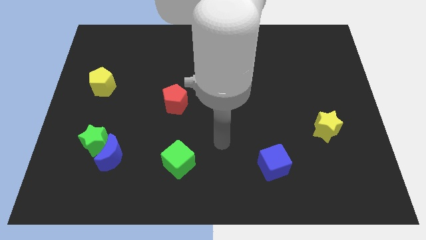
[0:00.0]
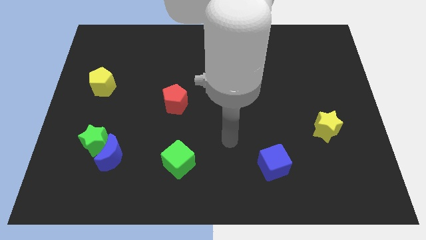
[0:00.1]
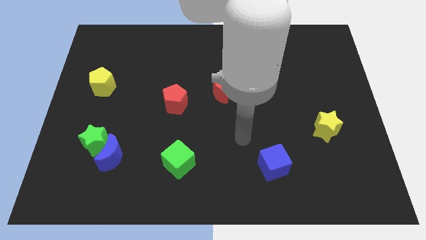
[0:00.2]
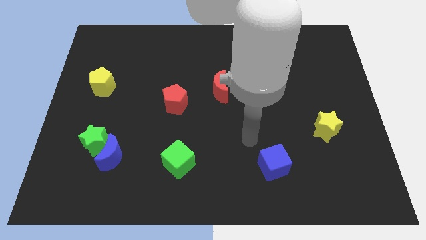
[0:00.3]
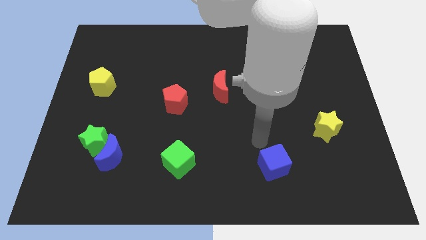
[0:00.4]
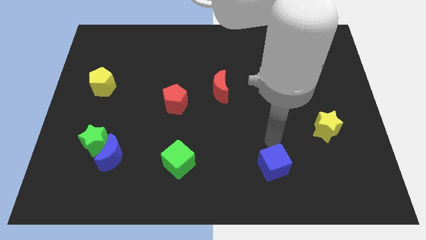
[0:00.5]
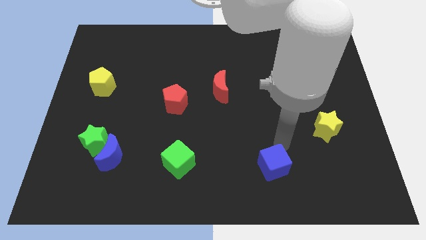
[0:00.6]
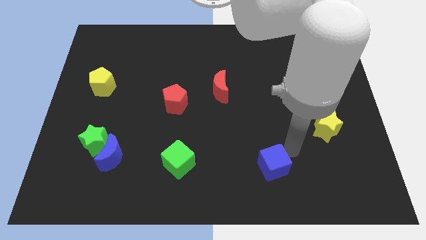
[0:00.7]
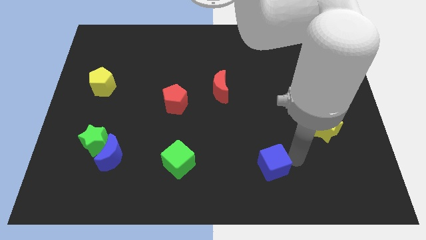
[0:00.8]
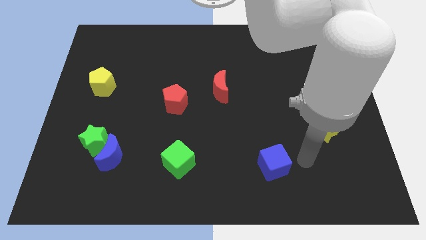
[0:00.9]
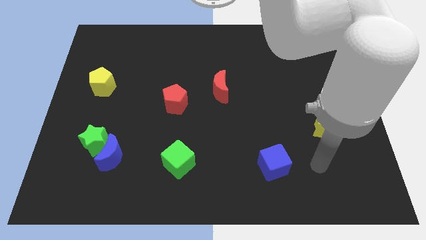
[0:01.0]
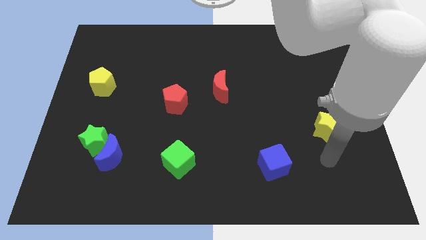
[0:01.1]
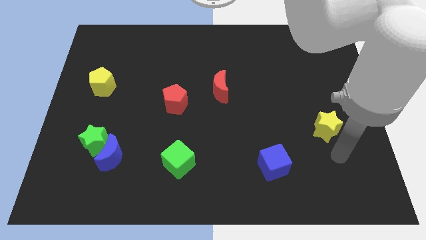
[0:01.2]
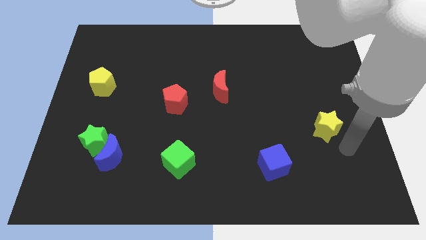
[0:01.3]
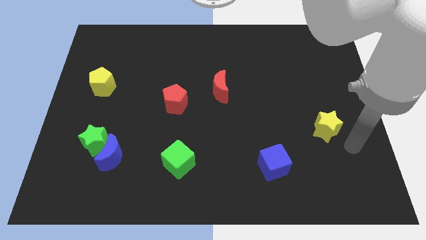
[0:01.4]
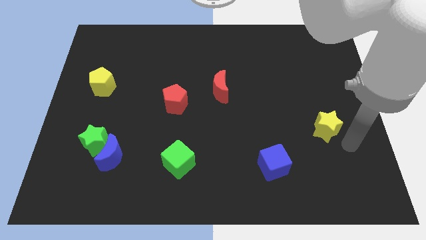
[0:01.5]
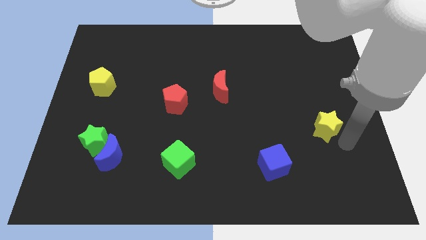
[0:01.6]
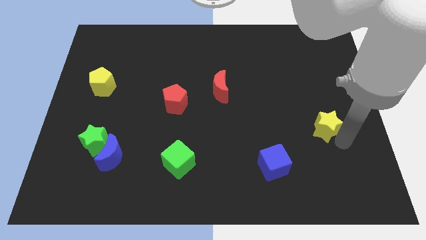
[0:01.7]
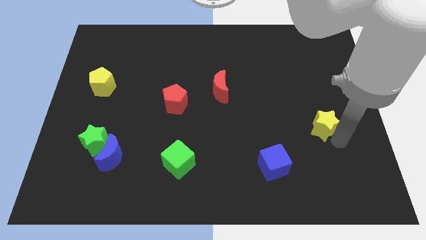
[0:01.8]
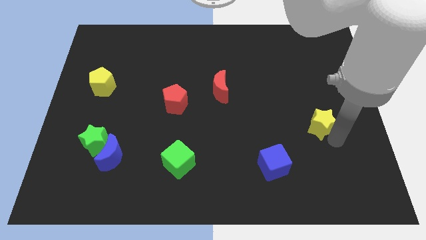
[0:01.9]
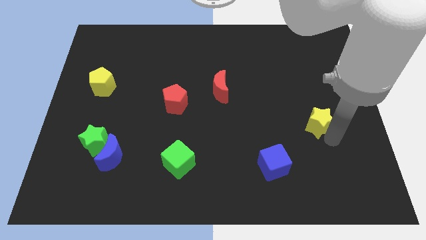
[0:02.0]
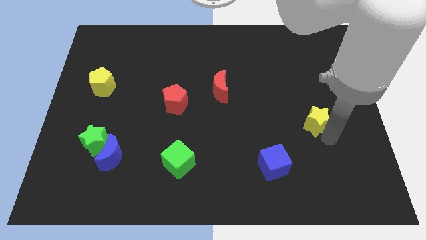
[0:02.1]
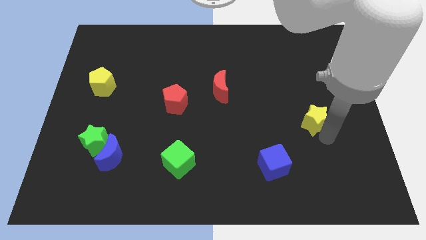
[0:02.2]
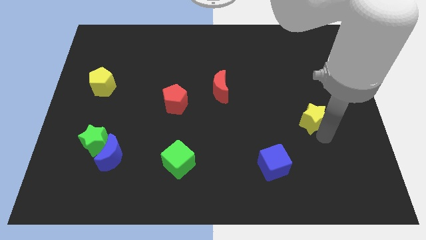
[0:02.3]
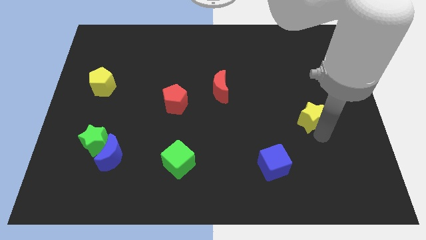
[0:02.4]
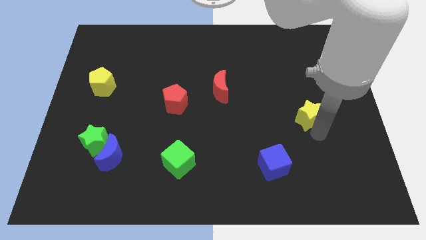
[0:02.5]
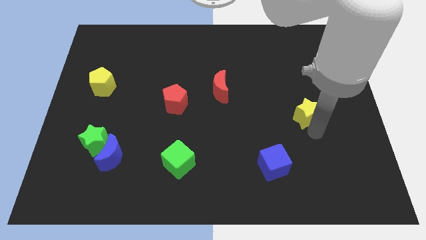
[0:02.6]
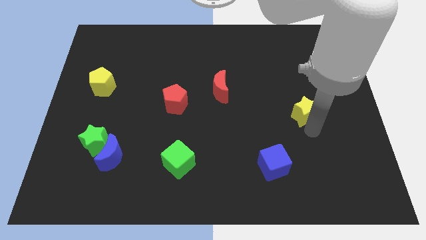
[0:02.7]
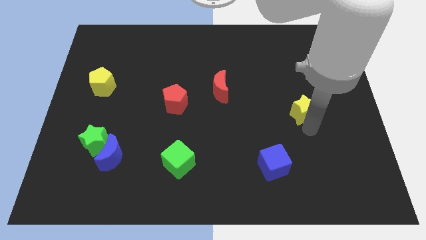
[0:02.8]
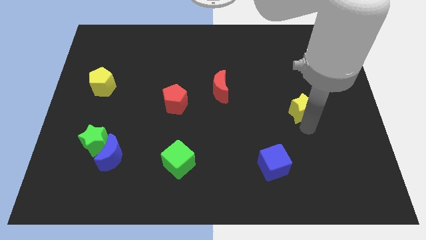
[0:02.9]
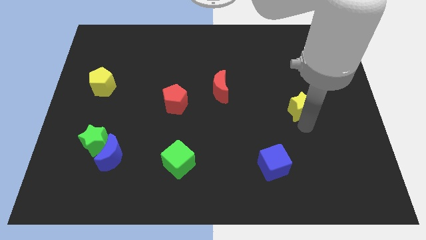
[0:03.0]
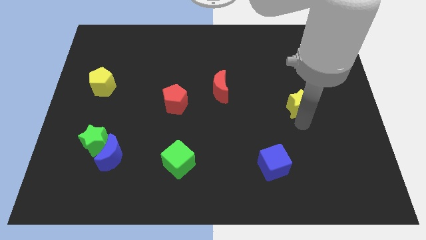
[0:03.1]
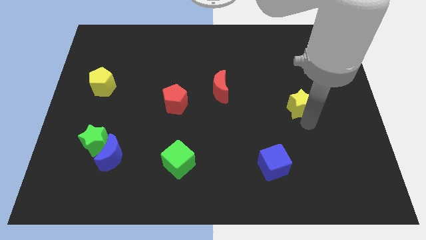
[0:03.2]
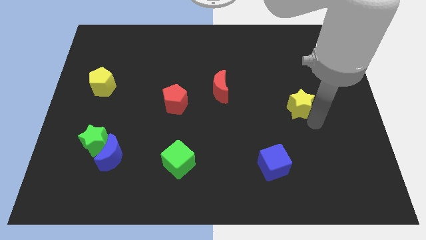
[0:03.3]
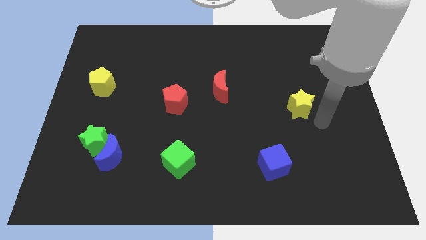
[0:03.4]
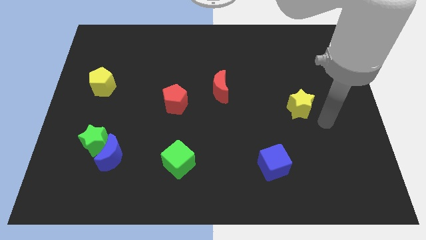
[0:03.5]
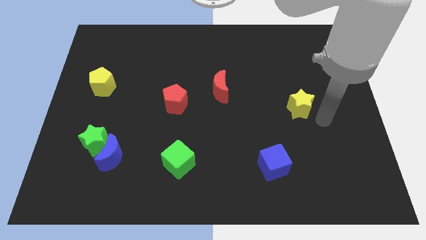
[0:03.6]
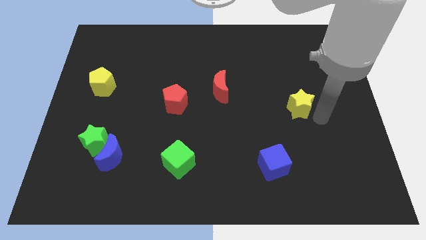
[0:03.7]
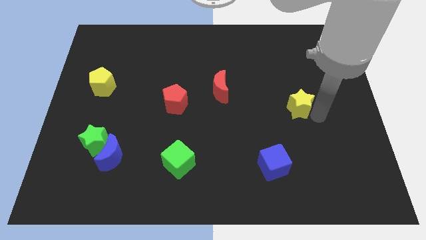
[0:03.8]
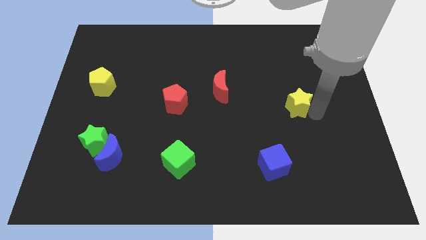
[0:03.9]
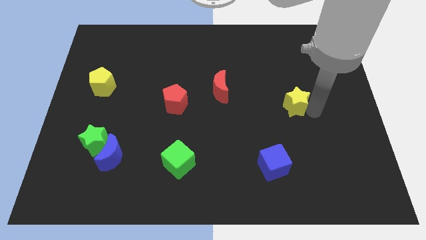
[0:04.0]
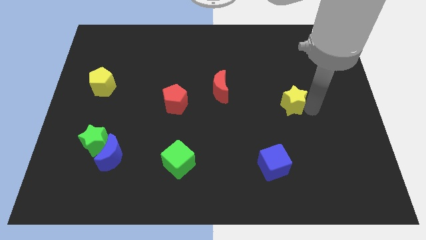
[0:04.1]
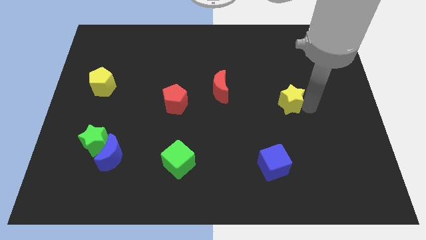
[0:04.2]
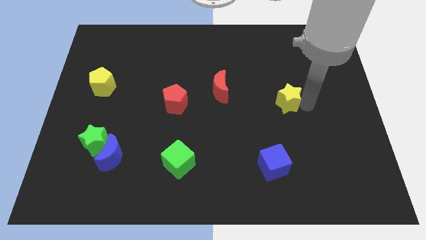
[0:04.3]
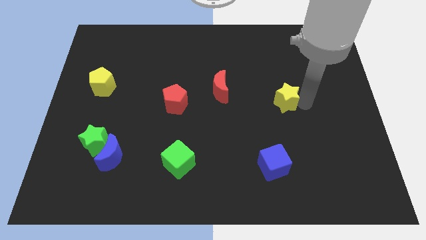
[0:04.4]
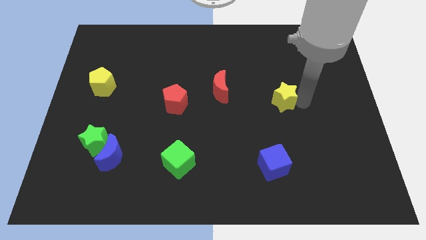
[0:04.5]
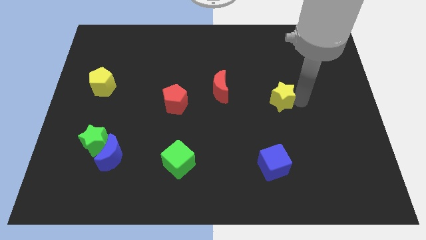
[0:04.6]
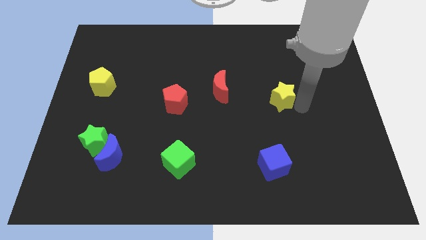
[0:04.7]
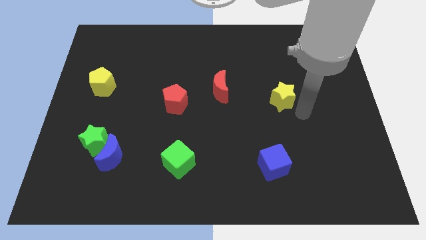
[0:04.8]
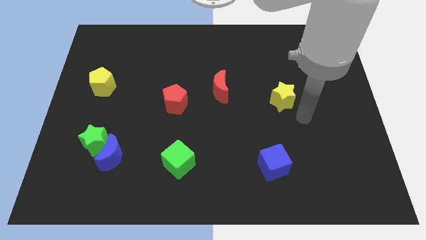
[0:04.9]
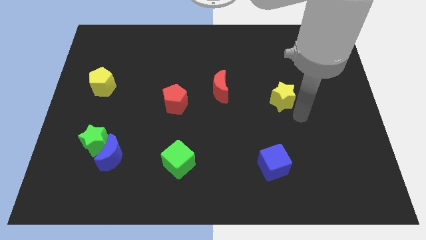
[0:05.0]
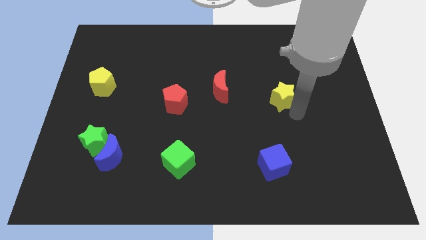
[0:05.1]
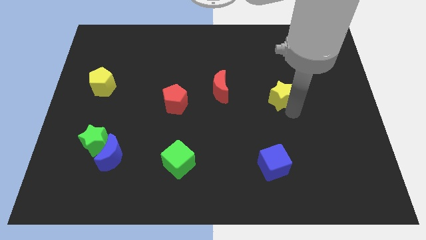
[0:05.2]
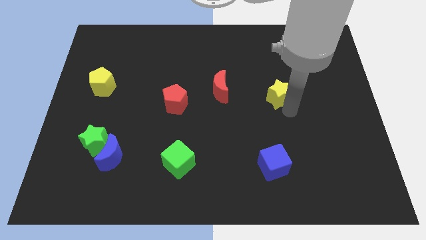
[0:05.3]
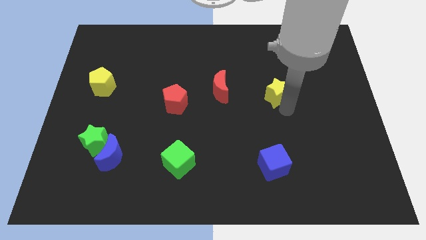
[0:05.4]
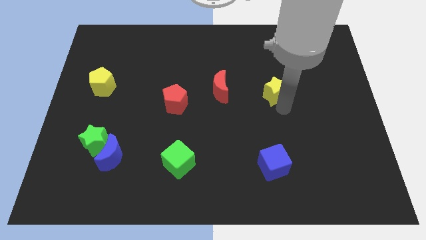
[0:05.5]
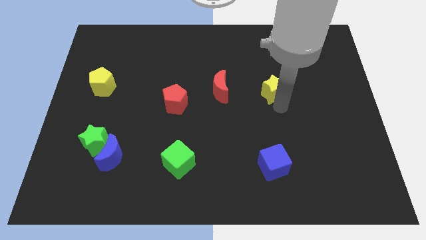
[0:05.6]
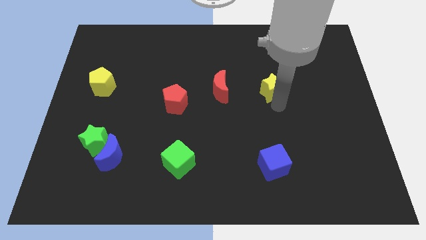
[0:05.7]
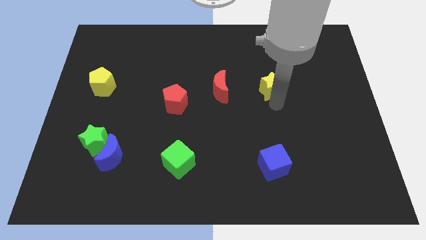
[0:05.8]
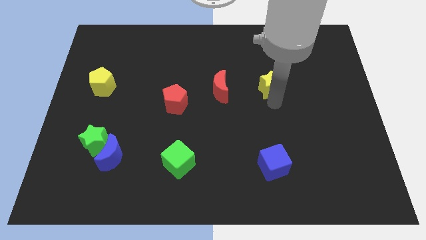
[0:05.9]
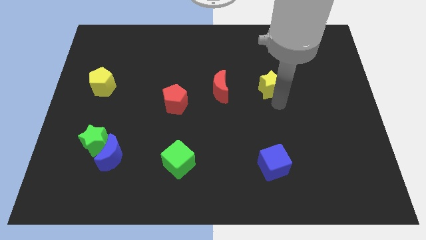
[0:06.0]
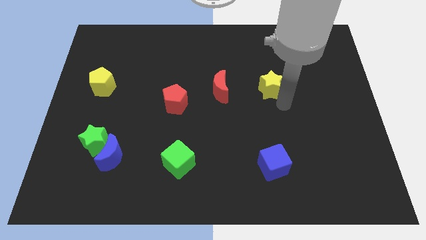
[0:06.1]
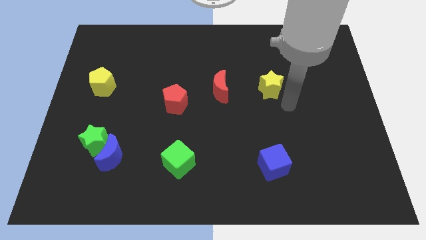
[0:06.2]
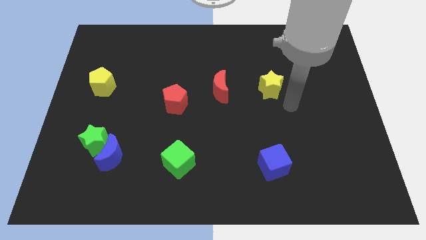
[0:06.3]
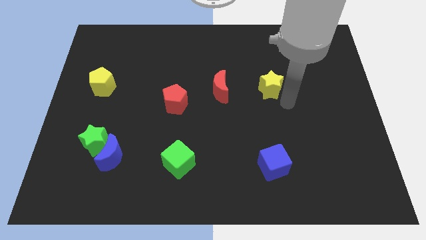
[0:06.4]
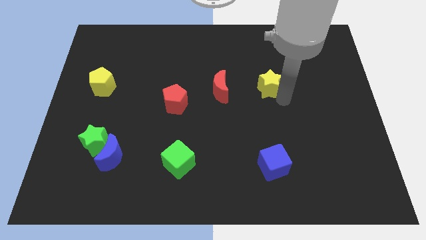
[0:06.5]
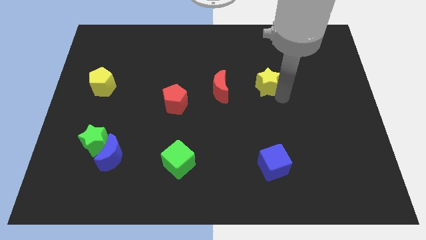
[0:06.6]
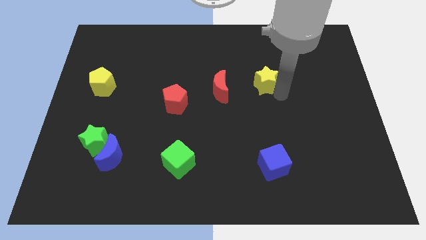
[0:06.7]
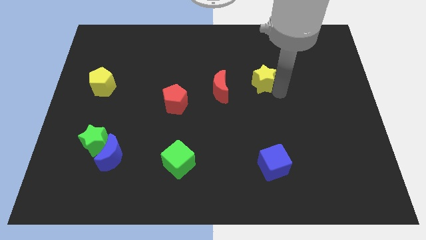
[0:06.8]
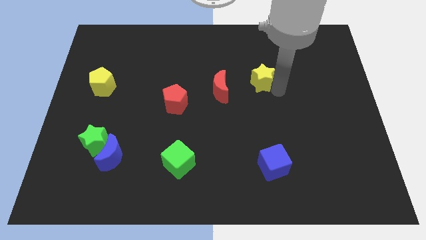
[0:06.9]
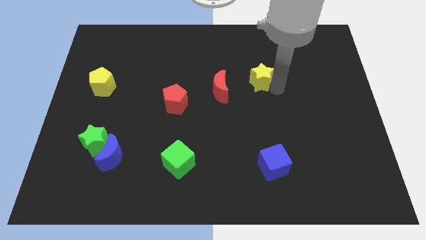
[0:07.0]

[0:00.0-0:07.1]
move the yellow star upwards and then to the left

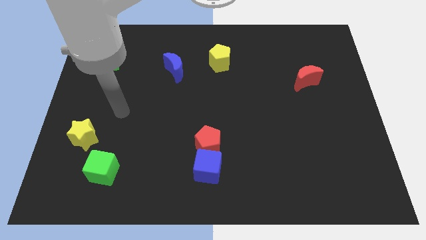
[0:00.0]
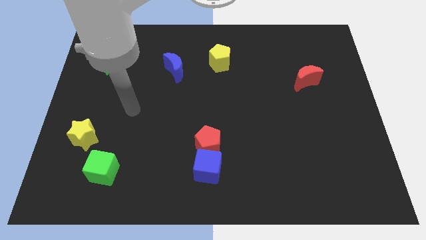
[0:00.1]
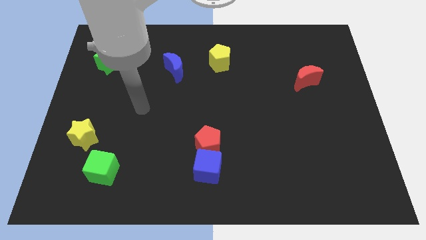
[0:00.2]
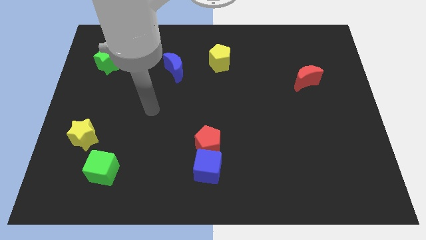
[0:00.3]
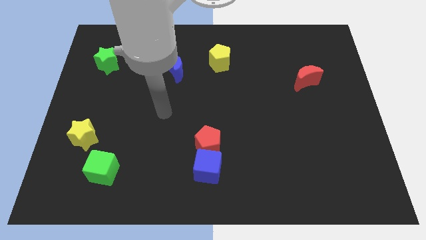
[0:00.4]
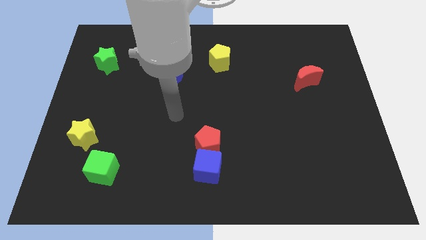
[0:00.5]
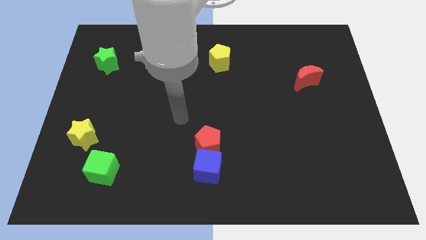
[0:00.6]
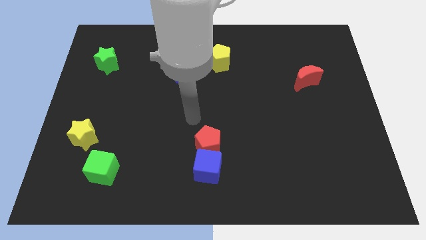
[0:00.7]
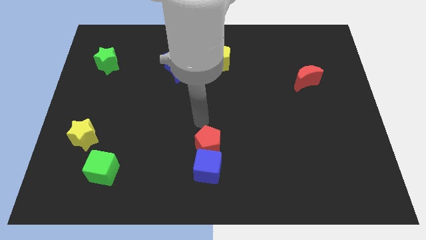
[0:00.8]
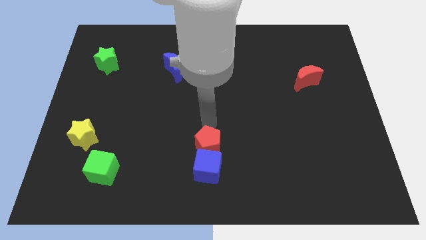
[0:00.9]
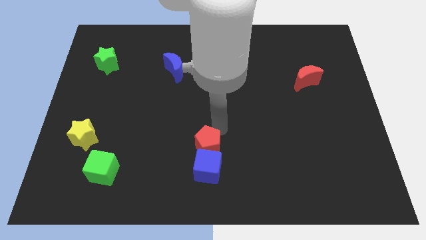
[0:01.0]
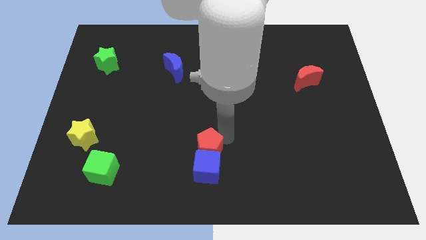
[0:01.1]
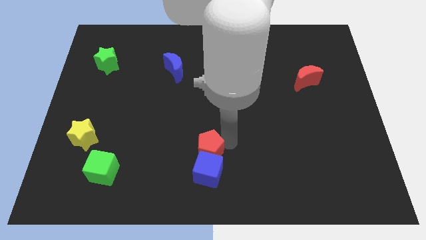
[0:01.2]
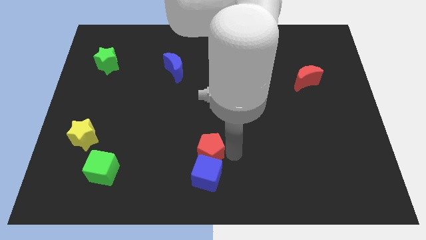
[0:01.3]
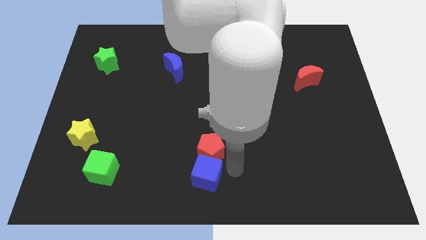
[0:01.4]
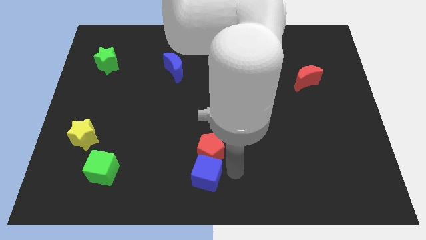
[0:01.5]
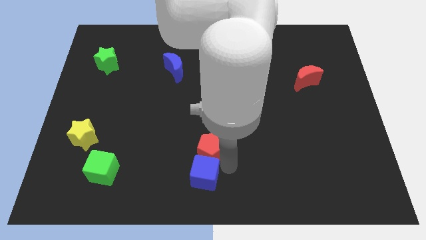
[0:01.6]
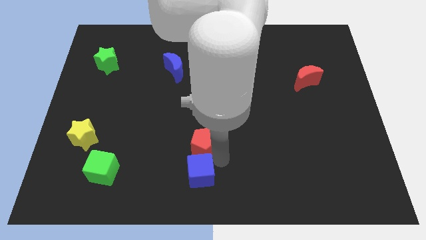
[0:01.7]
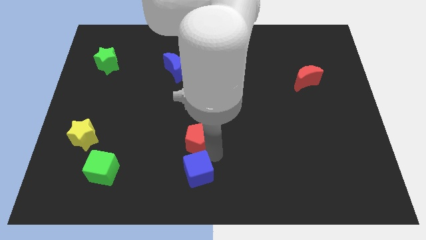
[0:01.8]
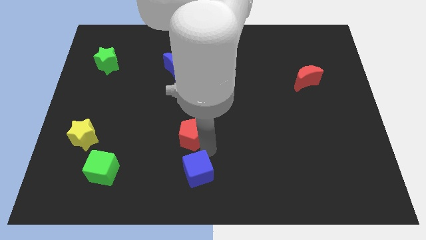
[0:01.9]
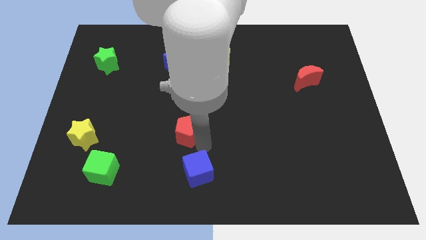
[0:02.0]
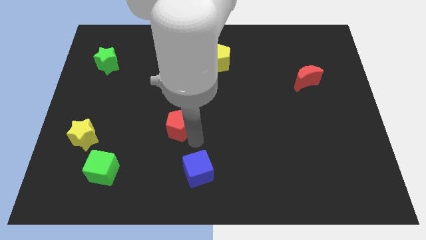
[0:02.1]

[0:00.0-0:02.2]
move the red pentagon a bit upwards and then to the left
